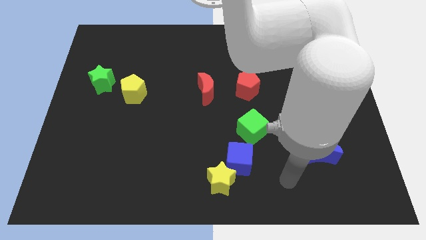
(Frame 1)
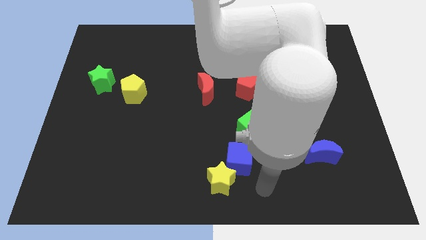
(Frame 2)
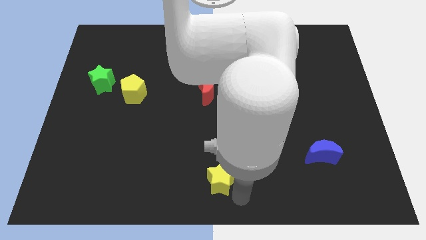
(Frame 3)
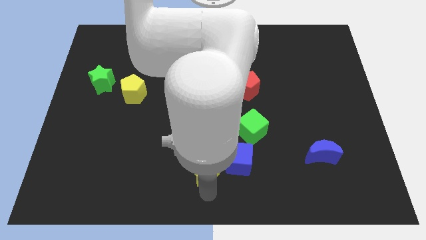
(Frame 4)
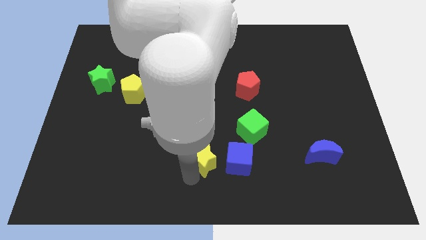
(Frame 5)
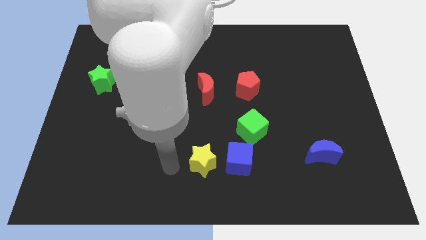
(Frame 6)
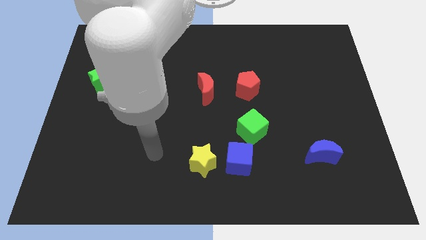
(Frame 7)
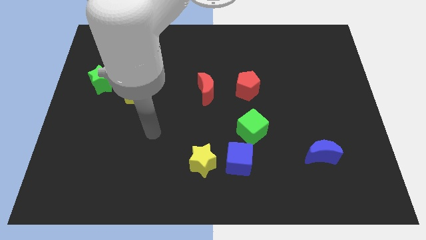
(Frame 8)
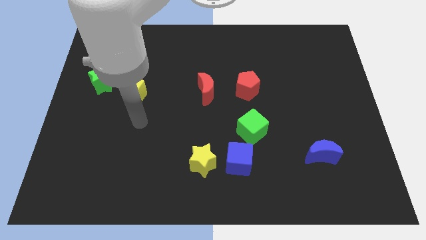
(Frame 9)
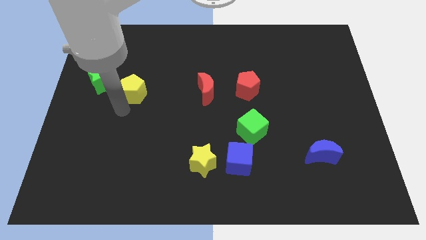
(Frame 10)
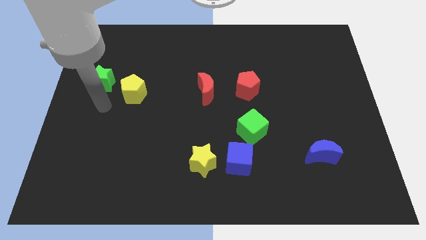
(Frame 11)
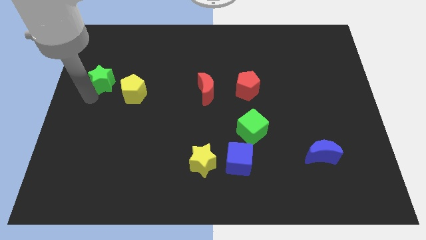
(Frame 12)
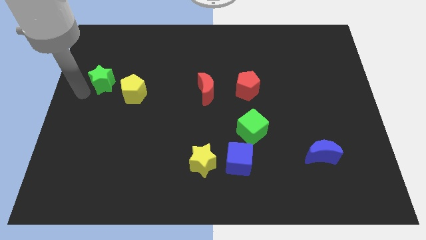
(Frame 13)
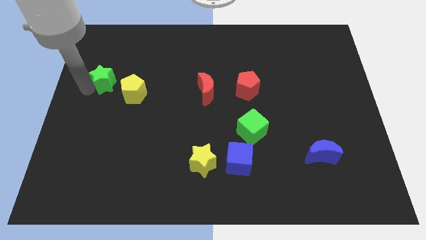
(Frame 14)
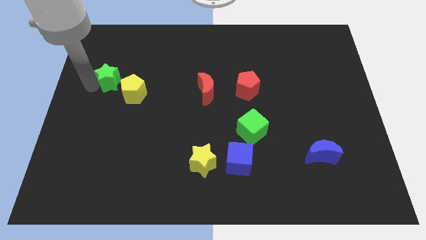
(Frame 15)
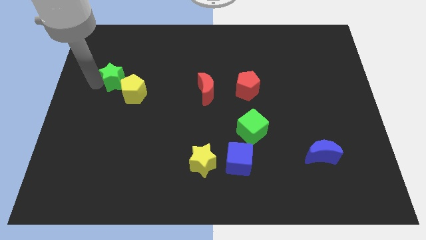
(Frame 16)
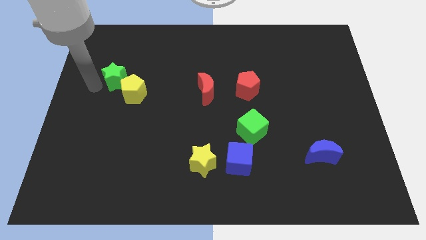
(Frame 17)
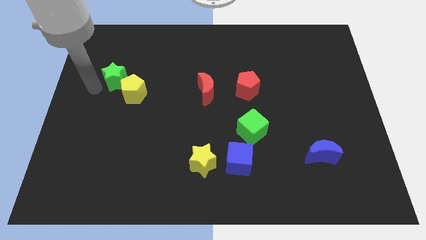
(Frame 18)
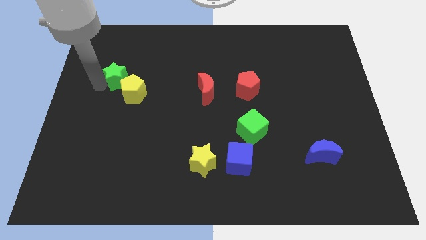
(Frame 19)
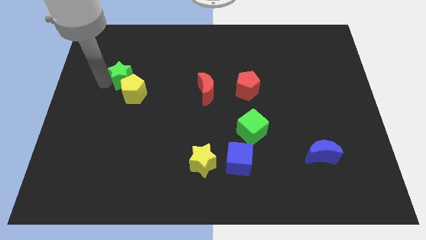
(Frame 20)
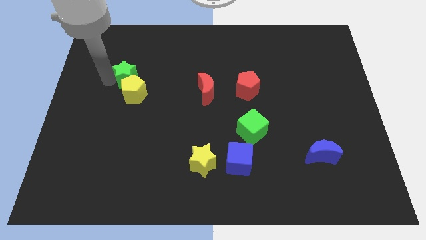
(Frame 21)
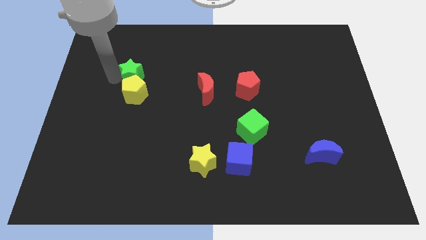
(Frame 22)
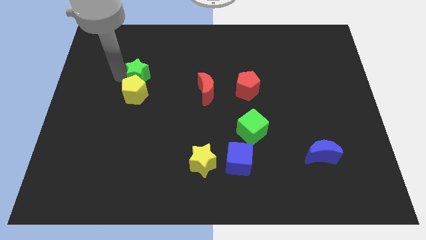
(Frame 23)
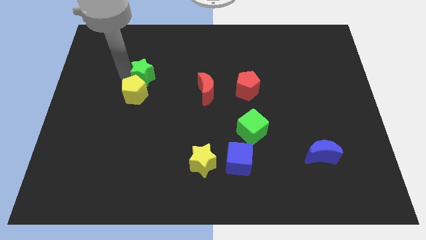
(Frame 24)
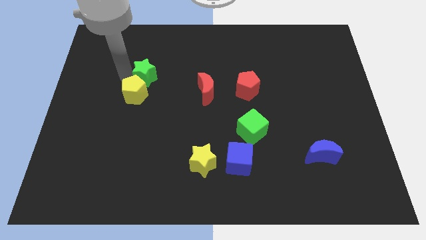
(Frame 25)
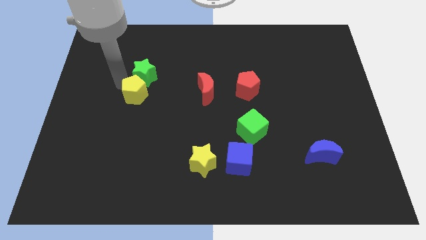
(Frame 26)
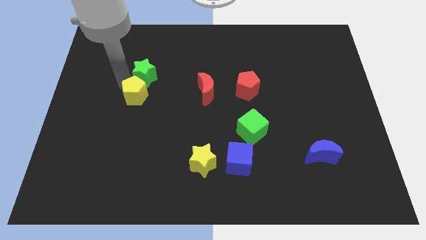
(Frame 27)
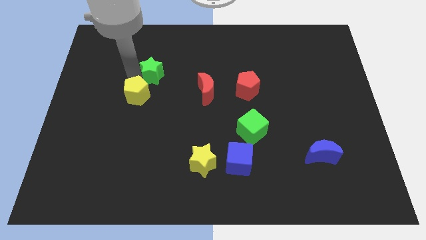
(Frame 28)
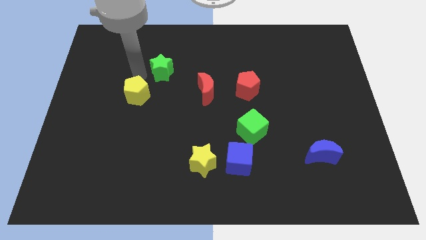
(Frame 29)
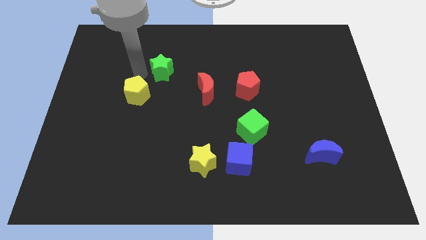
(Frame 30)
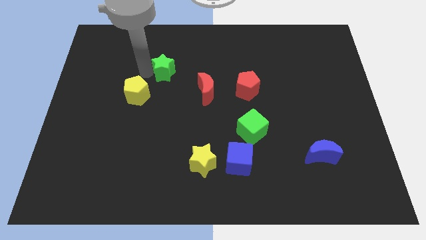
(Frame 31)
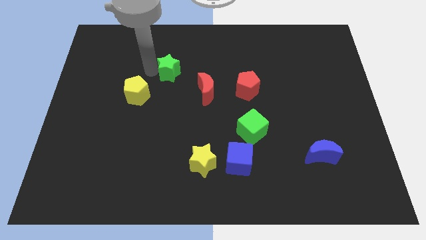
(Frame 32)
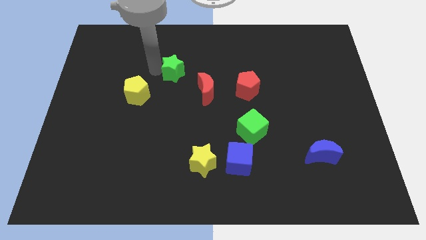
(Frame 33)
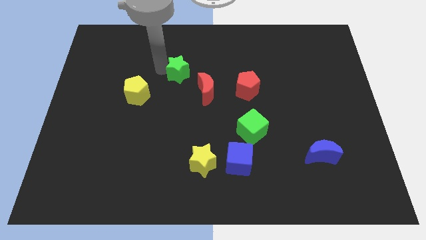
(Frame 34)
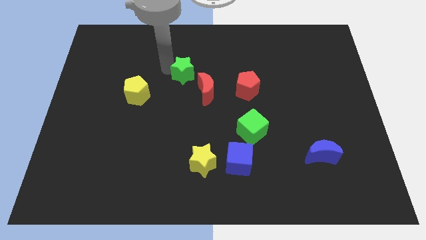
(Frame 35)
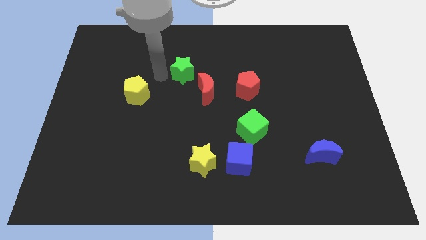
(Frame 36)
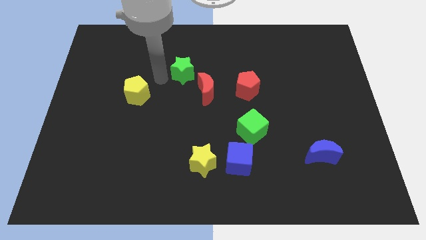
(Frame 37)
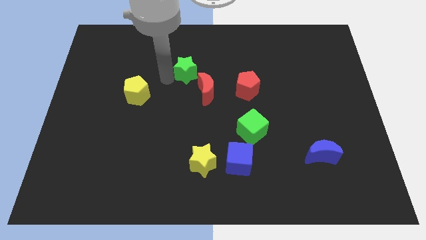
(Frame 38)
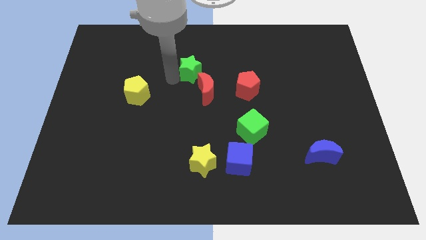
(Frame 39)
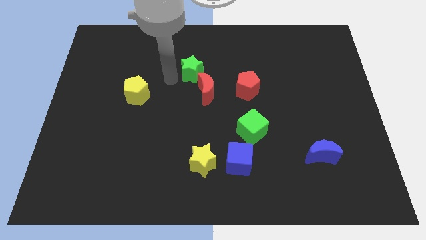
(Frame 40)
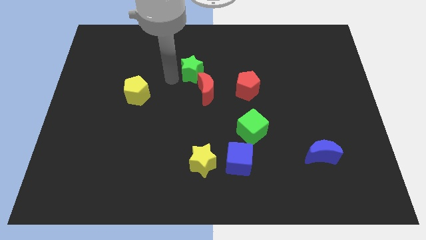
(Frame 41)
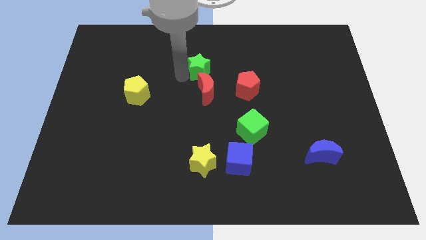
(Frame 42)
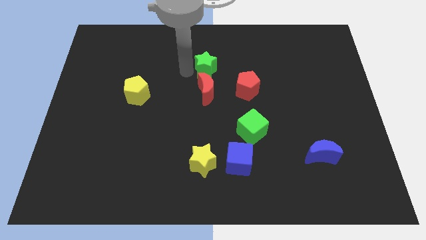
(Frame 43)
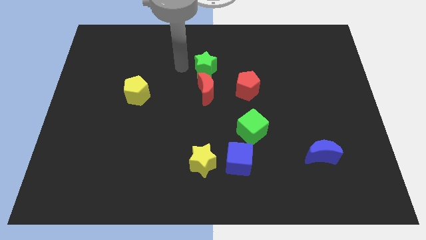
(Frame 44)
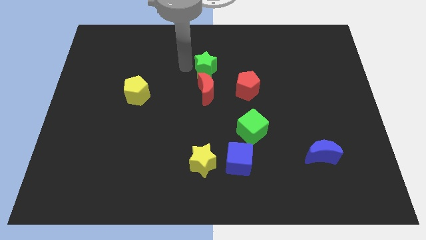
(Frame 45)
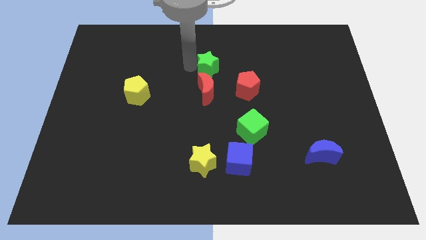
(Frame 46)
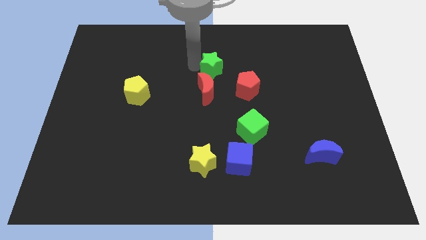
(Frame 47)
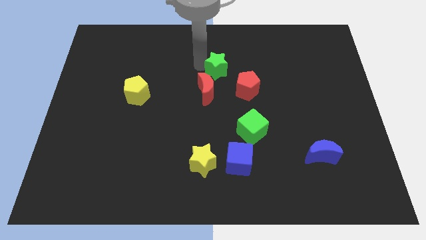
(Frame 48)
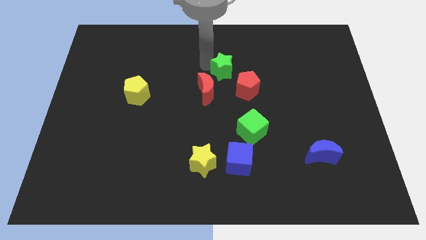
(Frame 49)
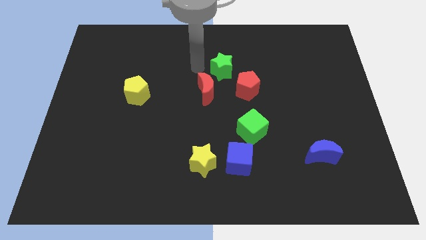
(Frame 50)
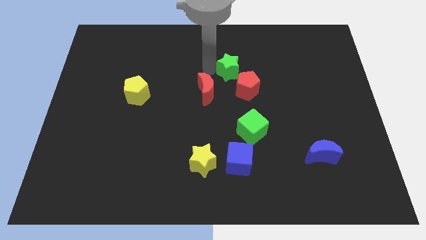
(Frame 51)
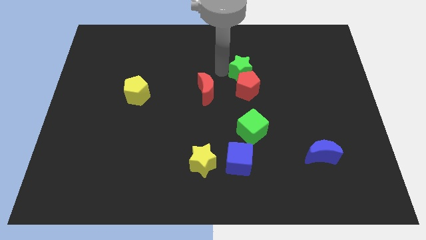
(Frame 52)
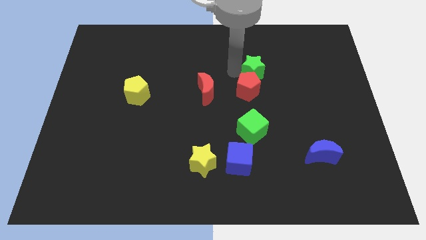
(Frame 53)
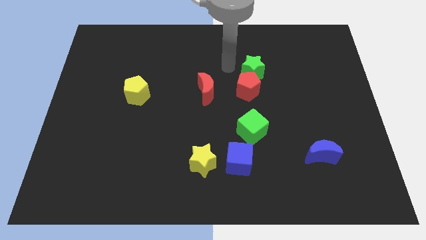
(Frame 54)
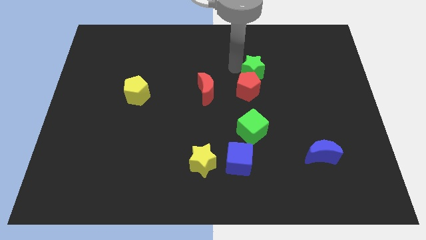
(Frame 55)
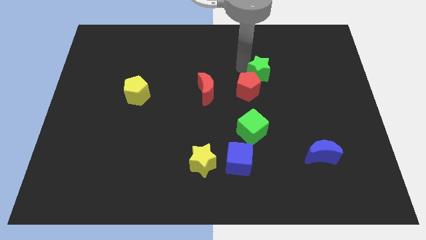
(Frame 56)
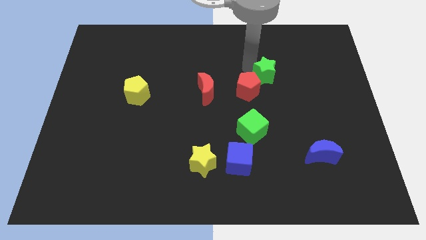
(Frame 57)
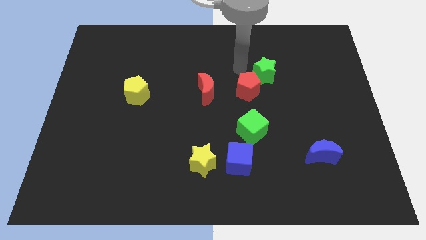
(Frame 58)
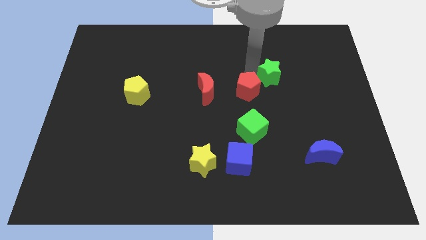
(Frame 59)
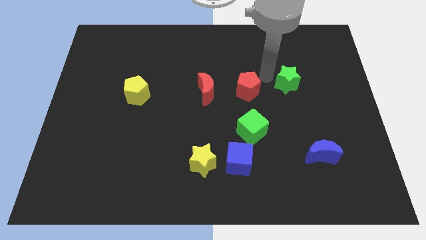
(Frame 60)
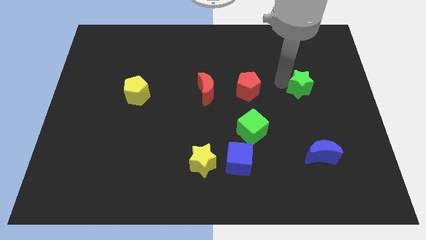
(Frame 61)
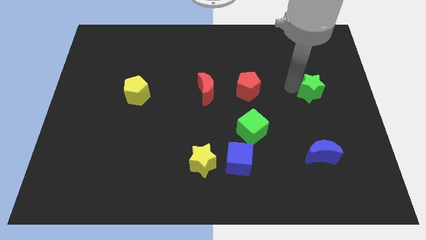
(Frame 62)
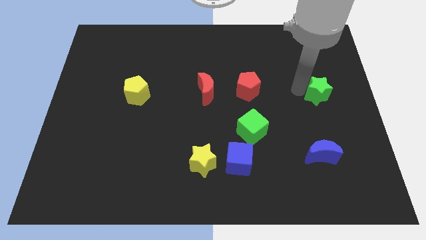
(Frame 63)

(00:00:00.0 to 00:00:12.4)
slide the green star to the right side of the board
